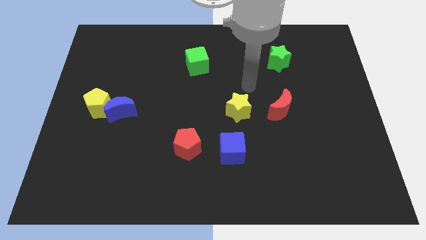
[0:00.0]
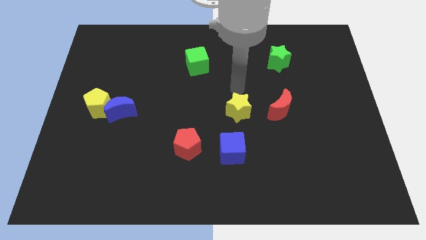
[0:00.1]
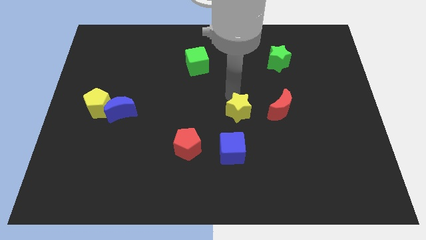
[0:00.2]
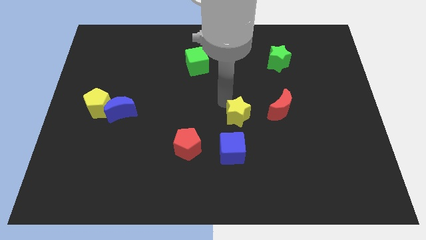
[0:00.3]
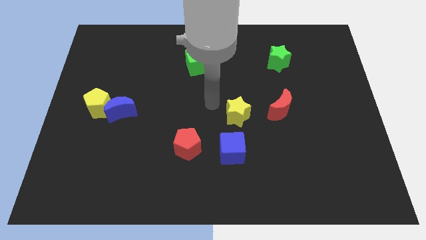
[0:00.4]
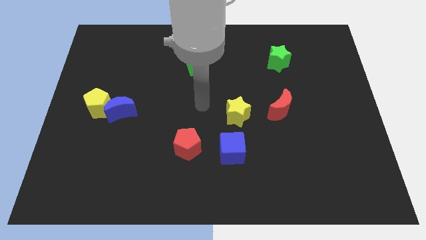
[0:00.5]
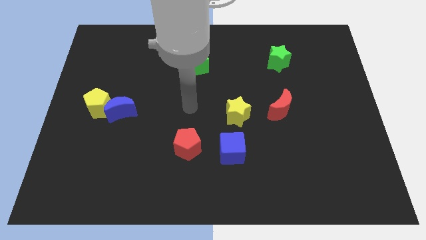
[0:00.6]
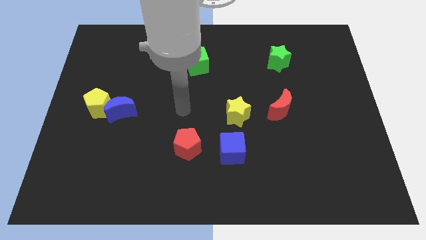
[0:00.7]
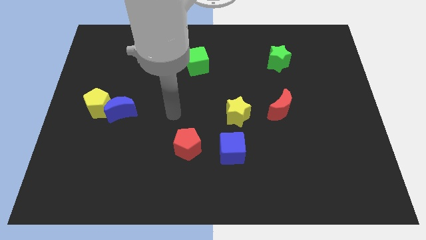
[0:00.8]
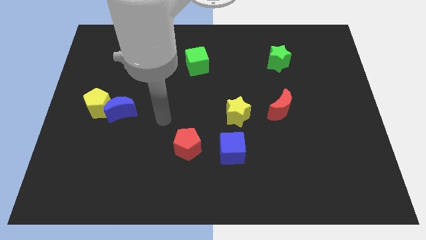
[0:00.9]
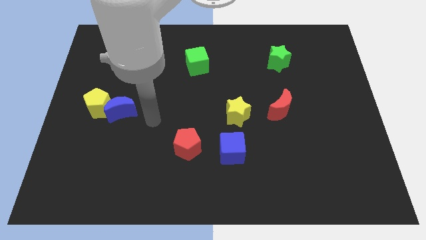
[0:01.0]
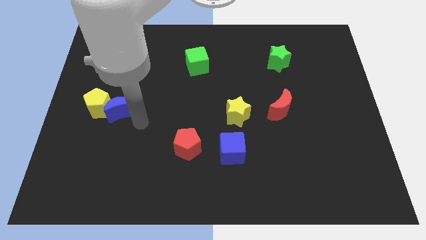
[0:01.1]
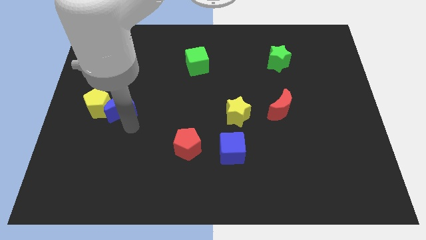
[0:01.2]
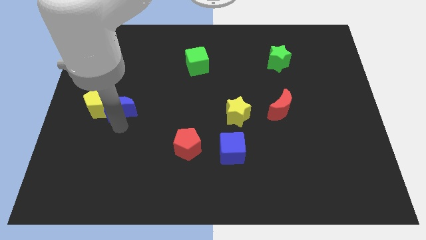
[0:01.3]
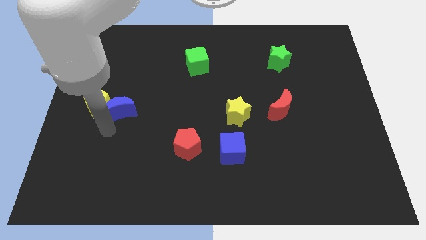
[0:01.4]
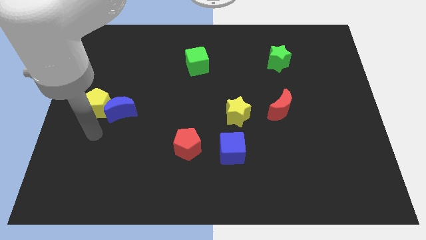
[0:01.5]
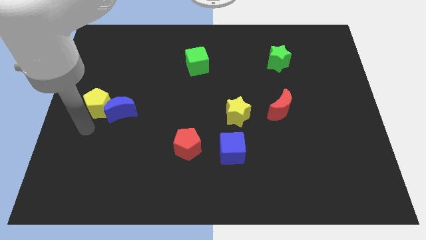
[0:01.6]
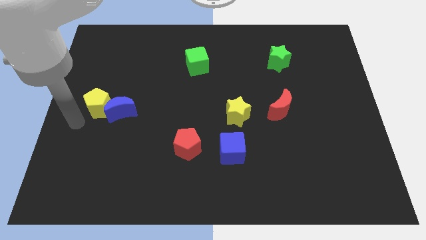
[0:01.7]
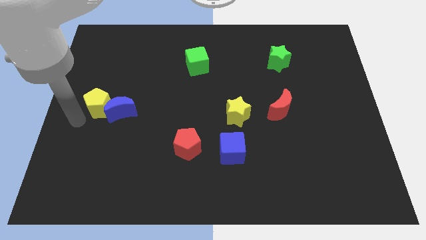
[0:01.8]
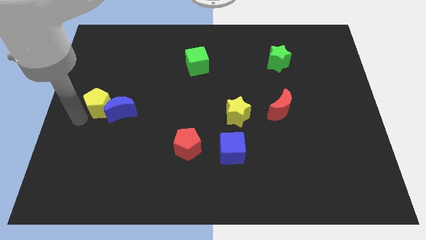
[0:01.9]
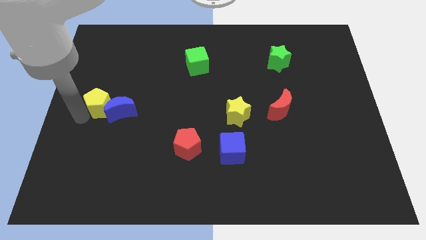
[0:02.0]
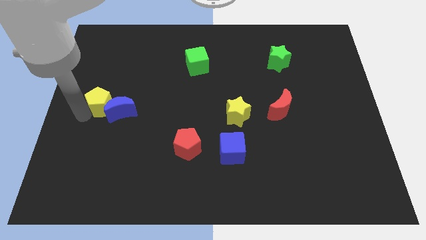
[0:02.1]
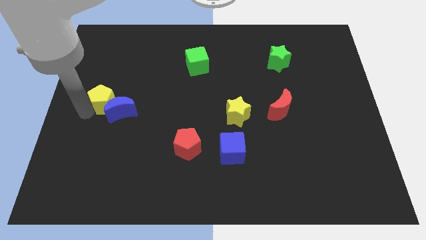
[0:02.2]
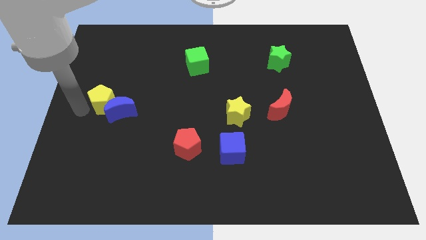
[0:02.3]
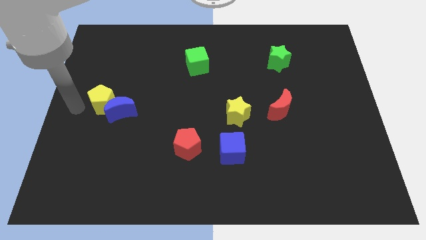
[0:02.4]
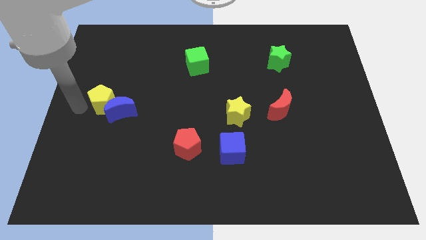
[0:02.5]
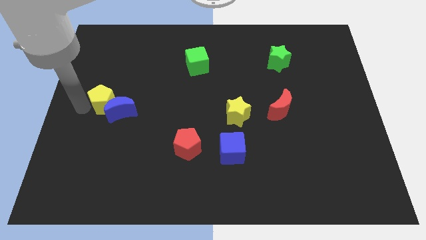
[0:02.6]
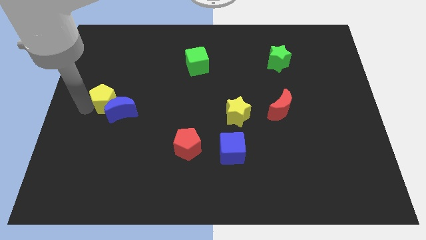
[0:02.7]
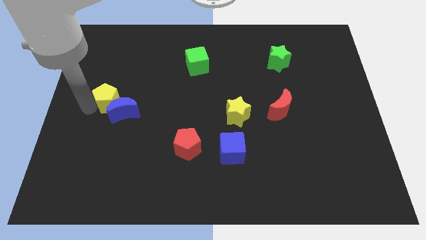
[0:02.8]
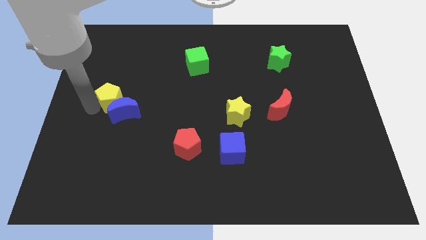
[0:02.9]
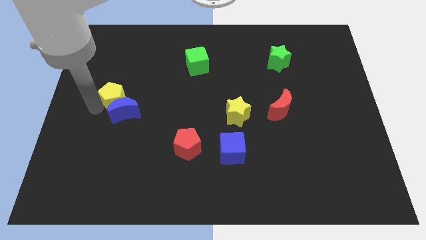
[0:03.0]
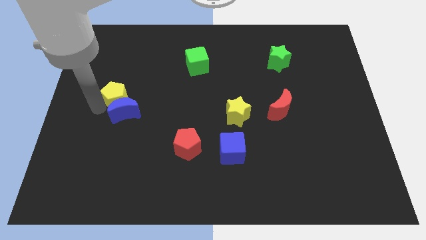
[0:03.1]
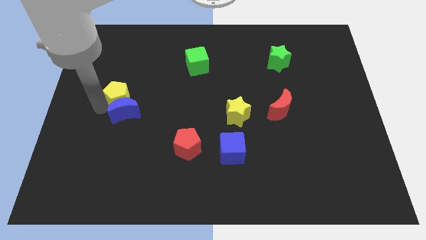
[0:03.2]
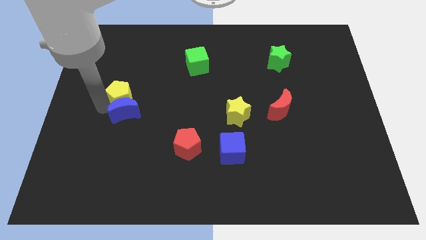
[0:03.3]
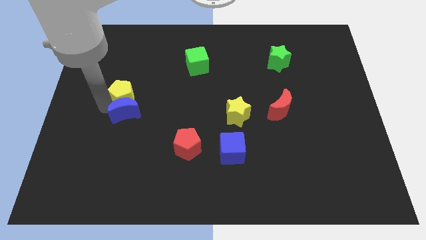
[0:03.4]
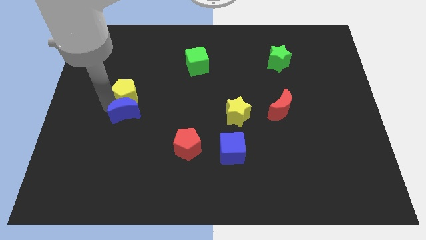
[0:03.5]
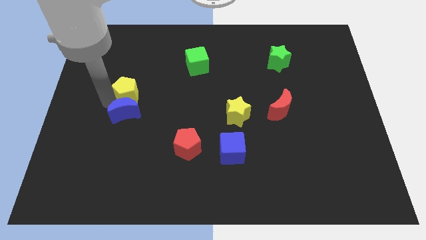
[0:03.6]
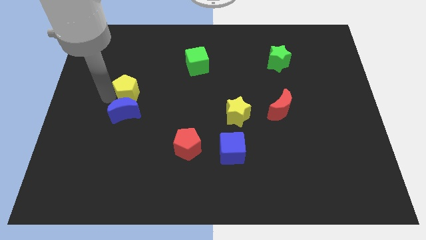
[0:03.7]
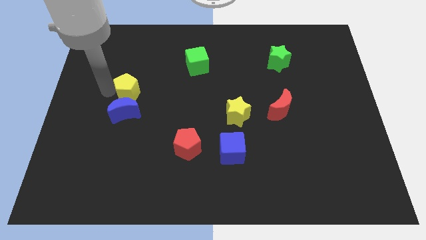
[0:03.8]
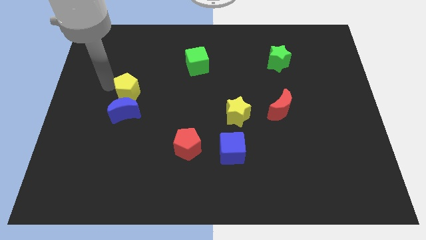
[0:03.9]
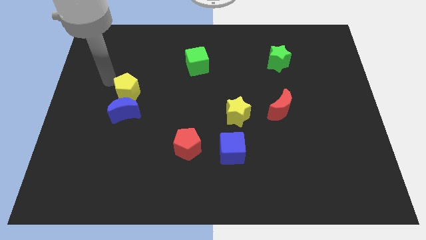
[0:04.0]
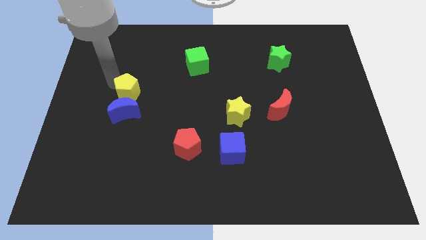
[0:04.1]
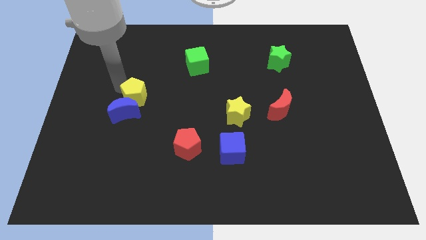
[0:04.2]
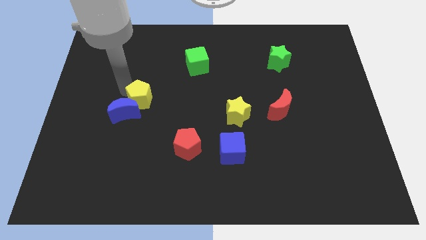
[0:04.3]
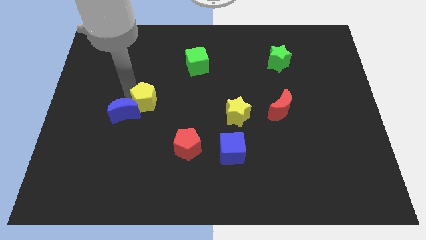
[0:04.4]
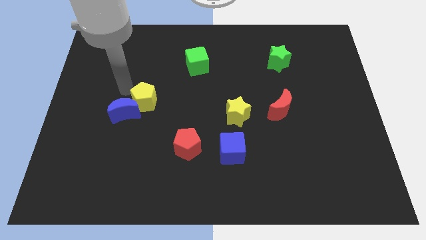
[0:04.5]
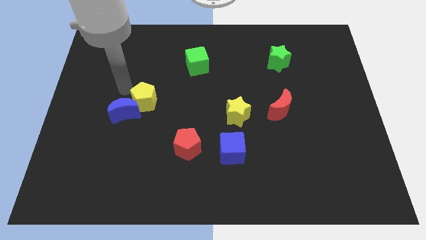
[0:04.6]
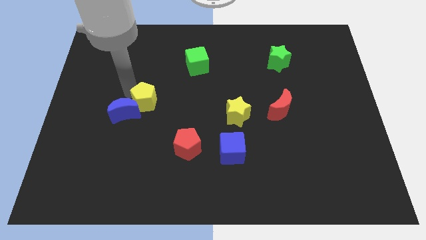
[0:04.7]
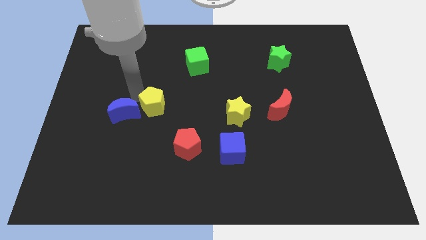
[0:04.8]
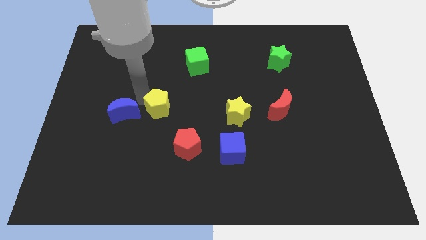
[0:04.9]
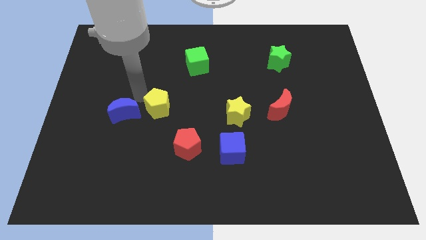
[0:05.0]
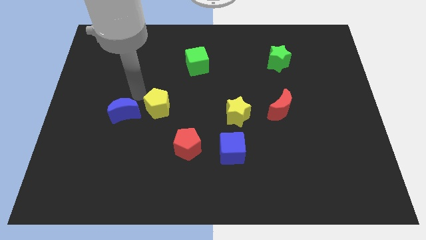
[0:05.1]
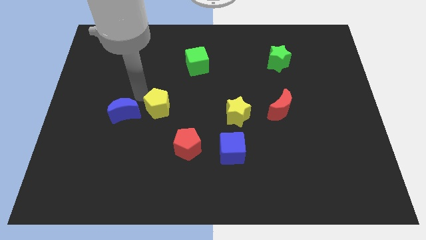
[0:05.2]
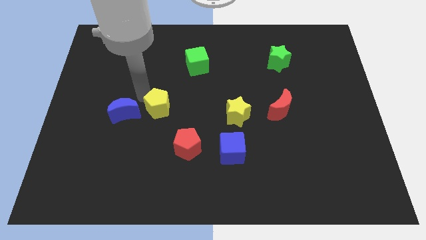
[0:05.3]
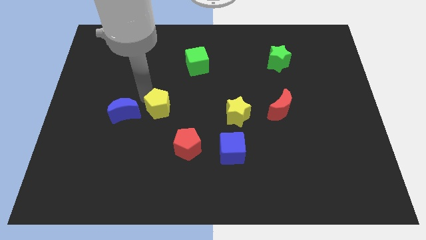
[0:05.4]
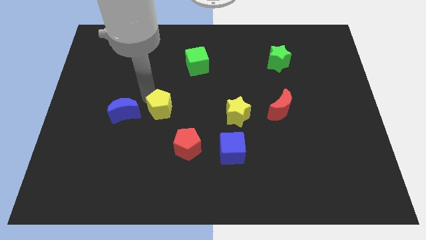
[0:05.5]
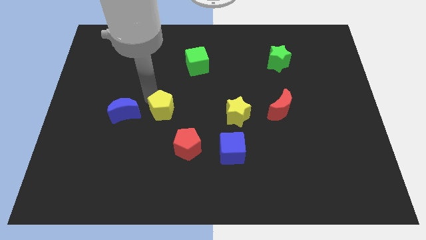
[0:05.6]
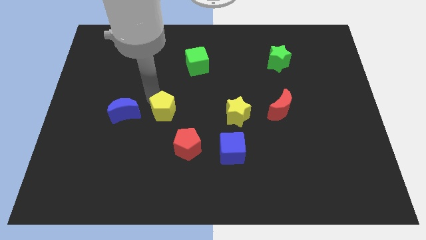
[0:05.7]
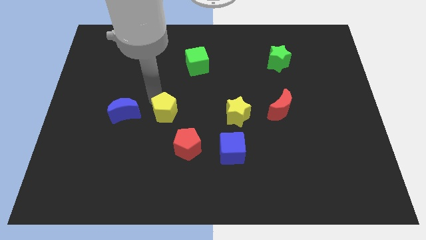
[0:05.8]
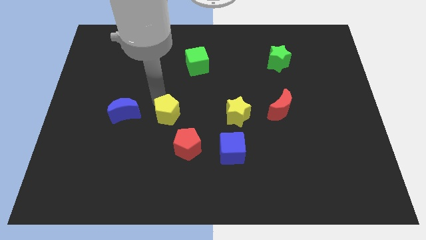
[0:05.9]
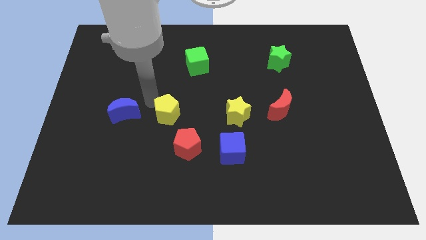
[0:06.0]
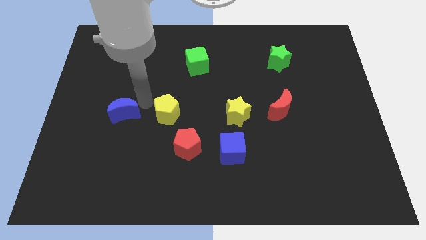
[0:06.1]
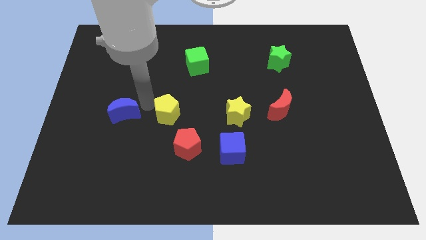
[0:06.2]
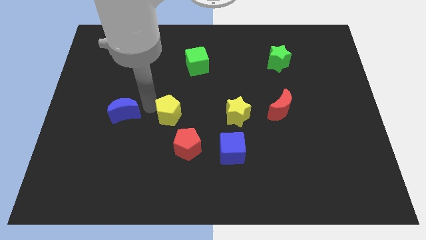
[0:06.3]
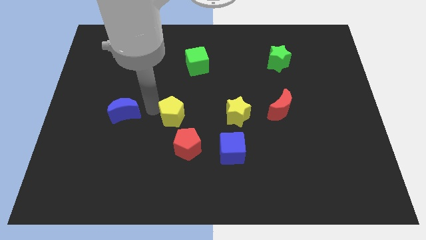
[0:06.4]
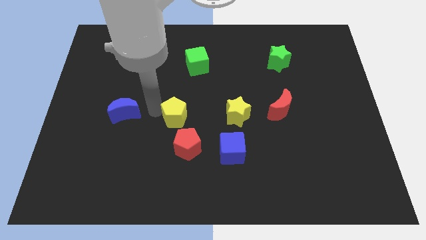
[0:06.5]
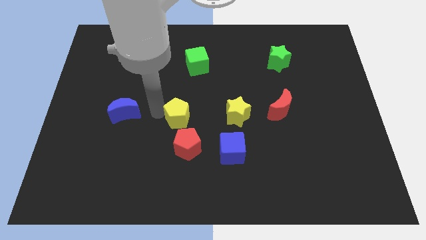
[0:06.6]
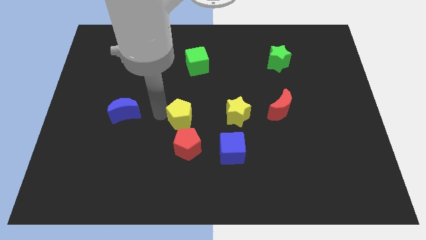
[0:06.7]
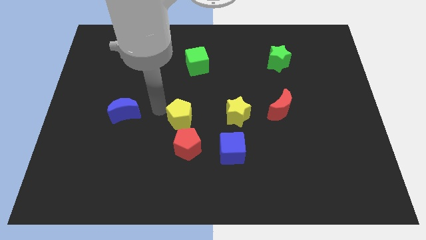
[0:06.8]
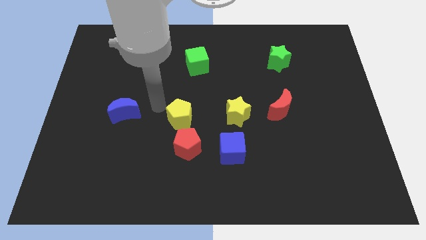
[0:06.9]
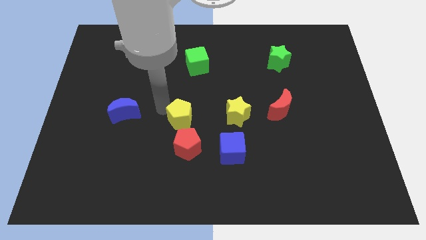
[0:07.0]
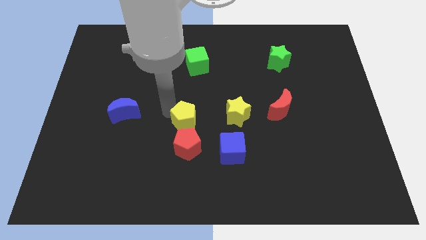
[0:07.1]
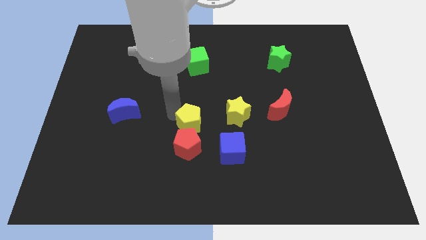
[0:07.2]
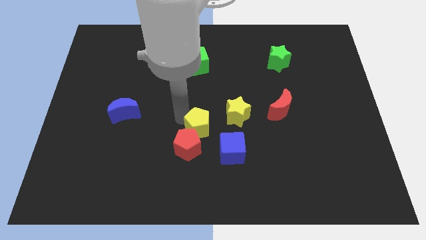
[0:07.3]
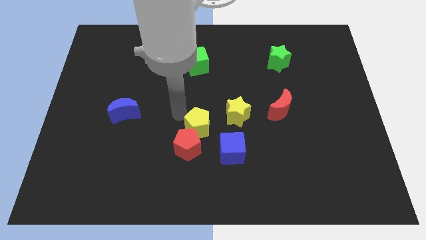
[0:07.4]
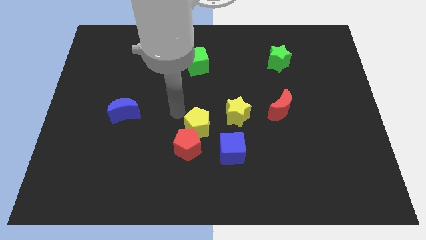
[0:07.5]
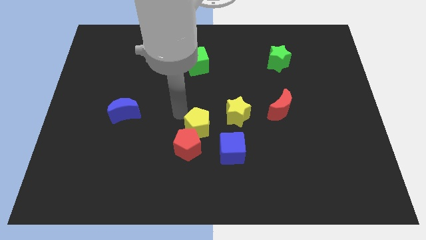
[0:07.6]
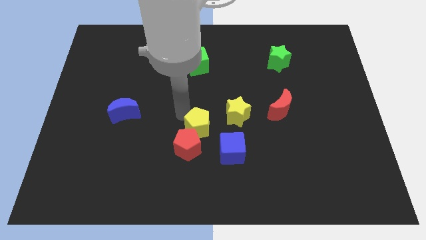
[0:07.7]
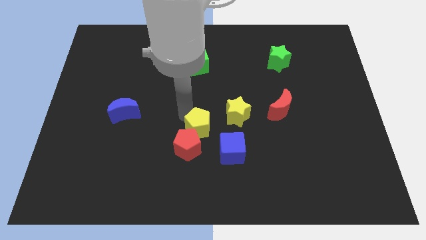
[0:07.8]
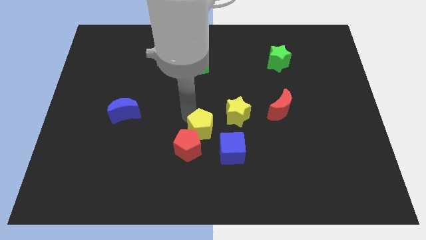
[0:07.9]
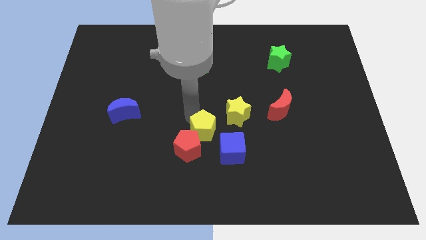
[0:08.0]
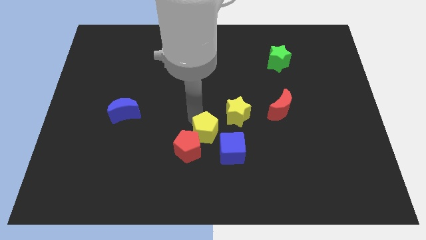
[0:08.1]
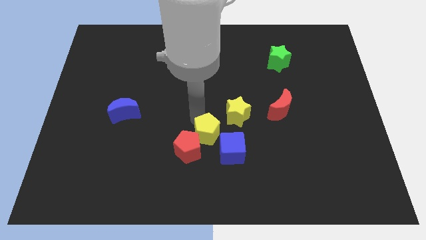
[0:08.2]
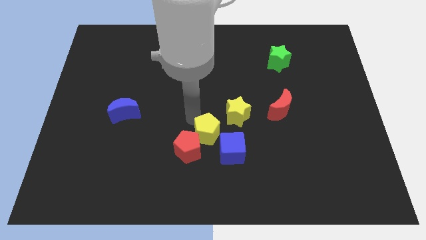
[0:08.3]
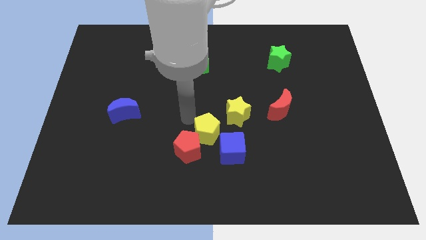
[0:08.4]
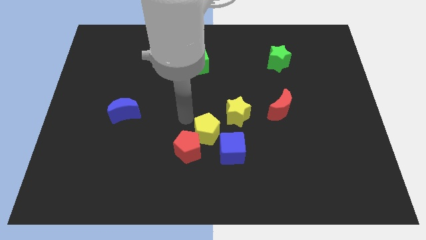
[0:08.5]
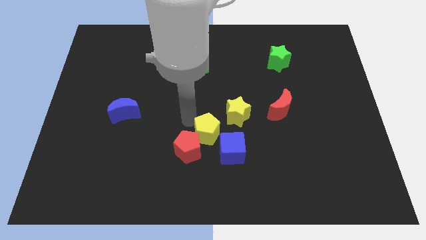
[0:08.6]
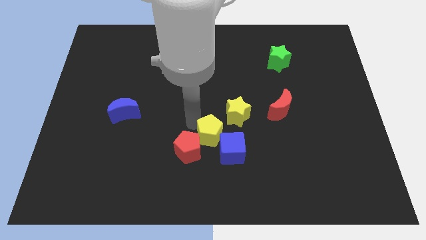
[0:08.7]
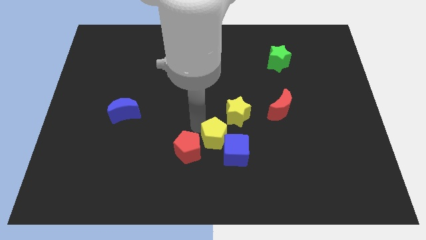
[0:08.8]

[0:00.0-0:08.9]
slide the yellow pentagon to the blue cube
